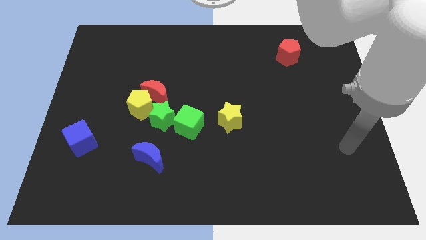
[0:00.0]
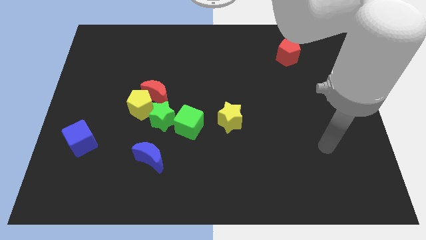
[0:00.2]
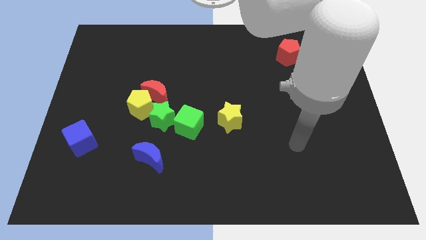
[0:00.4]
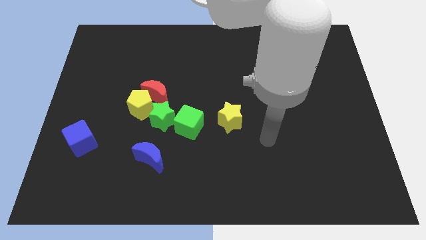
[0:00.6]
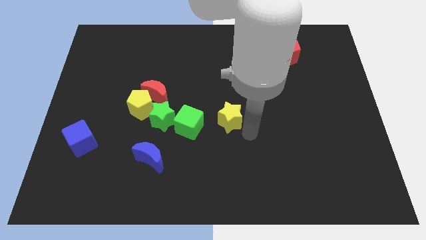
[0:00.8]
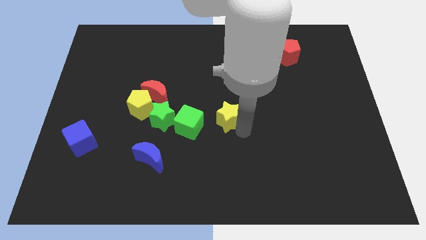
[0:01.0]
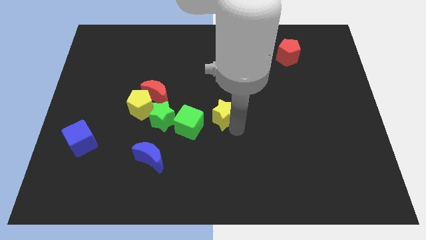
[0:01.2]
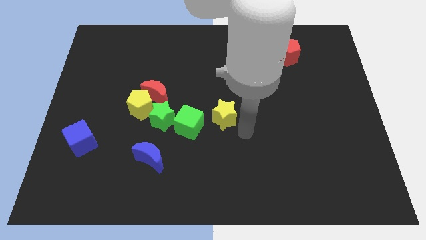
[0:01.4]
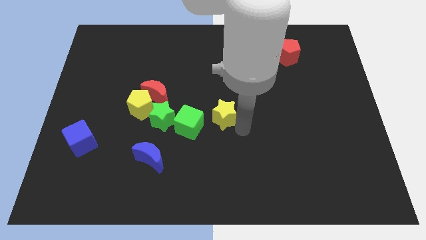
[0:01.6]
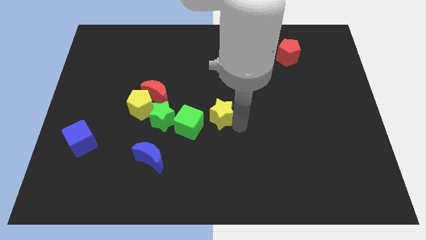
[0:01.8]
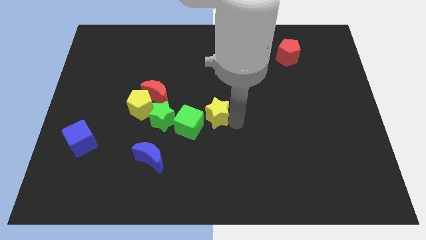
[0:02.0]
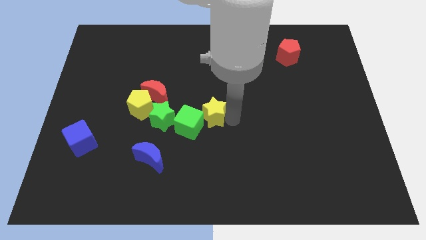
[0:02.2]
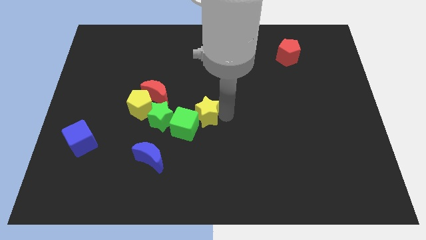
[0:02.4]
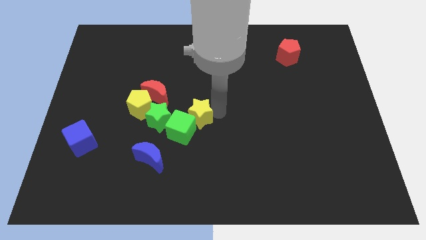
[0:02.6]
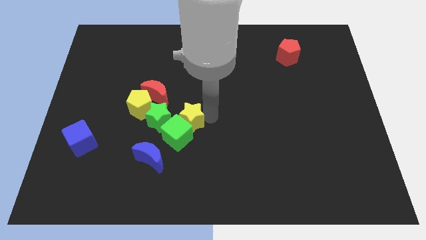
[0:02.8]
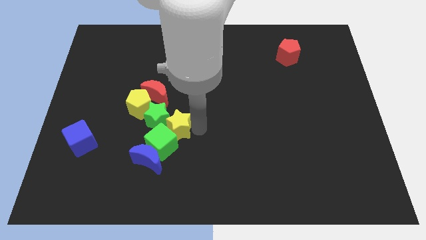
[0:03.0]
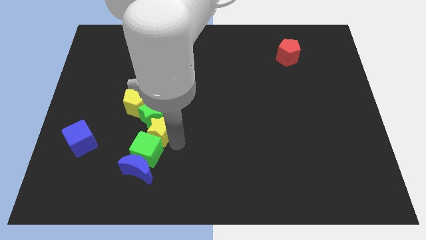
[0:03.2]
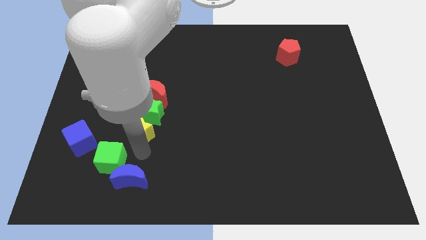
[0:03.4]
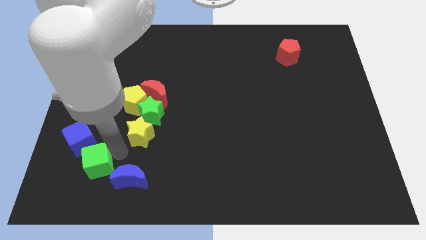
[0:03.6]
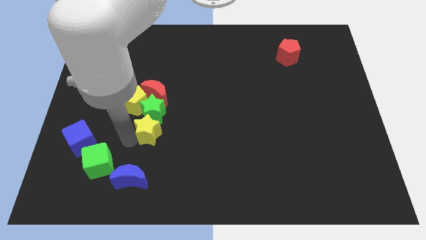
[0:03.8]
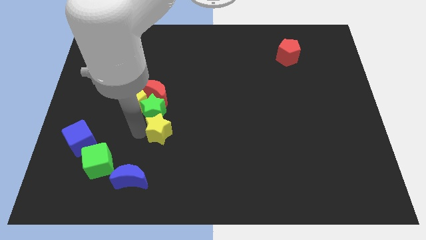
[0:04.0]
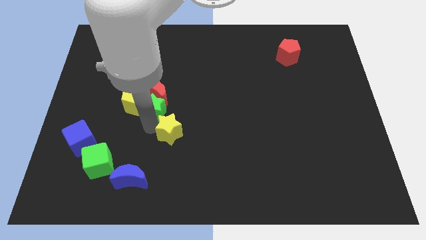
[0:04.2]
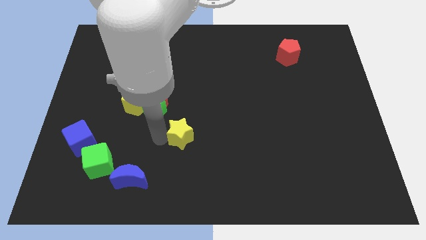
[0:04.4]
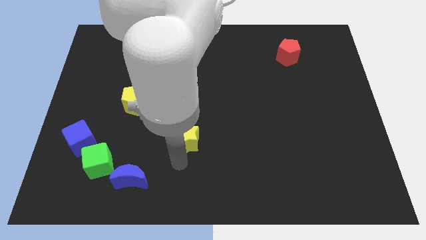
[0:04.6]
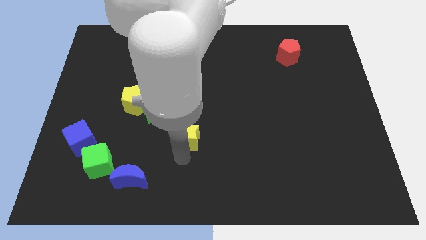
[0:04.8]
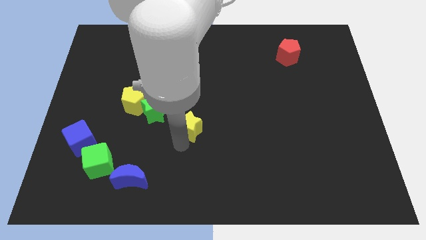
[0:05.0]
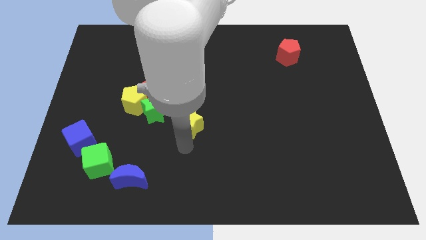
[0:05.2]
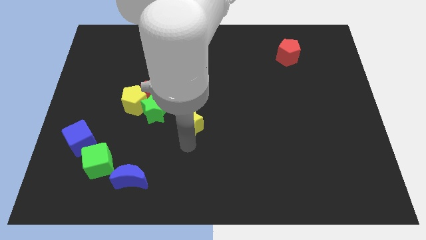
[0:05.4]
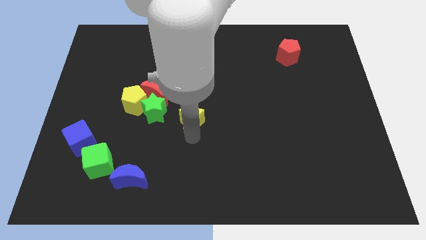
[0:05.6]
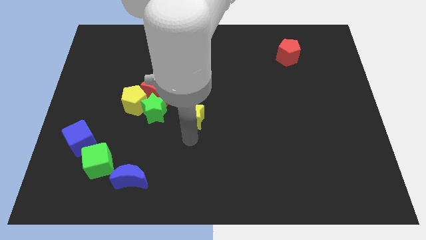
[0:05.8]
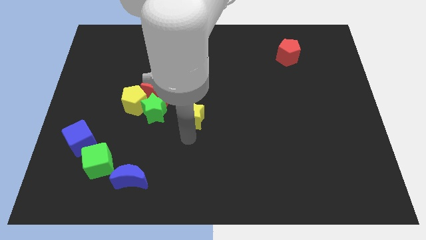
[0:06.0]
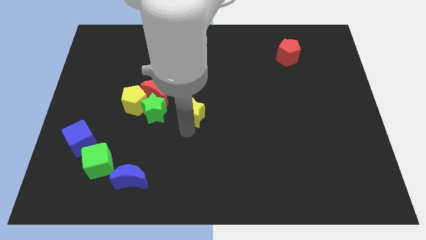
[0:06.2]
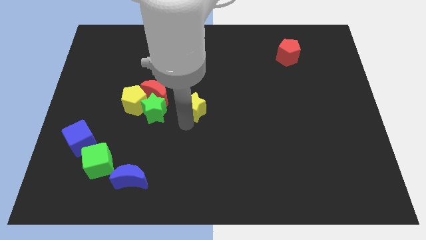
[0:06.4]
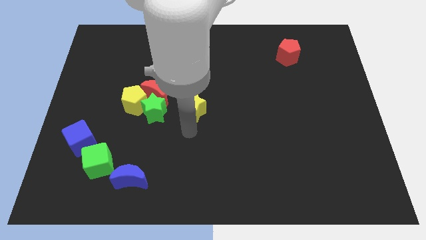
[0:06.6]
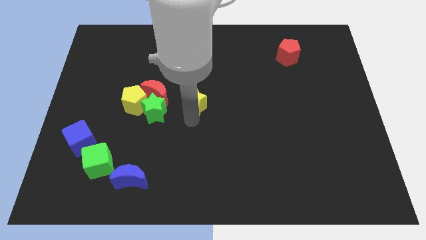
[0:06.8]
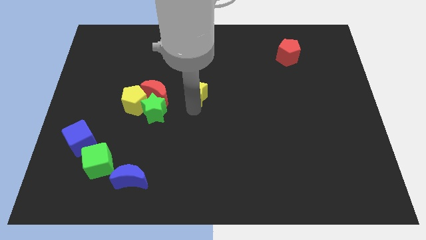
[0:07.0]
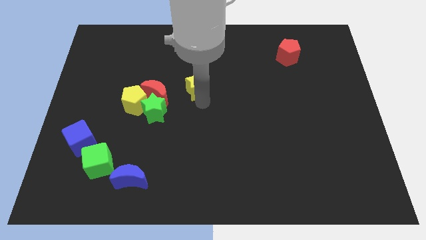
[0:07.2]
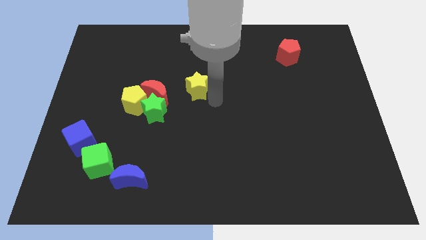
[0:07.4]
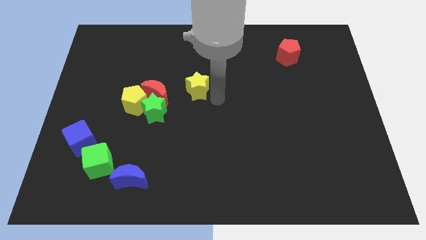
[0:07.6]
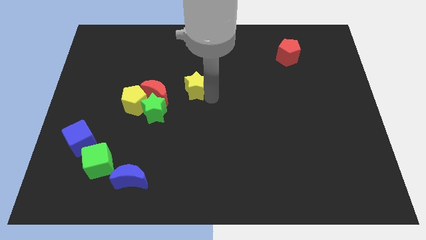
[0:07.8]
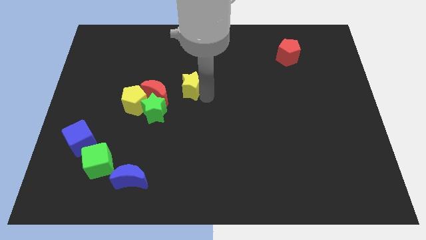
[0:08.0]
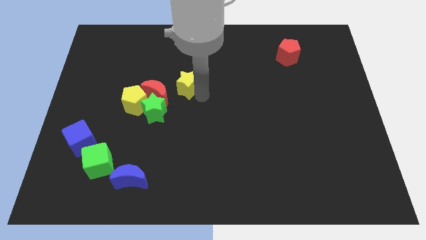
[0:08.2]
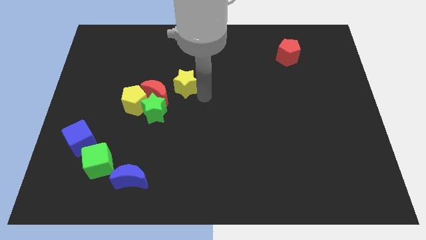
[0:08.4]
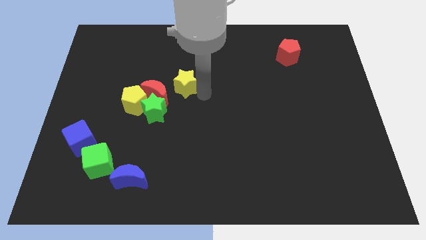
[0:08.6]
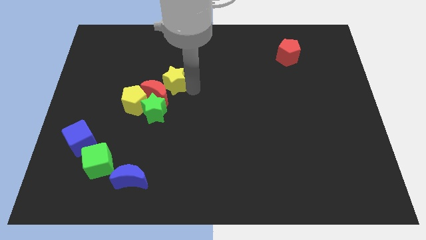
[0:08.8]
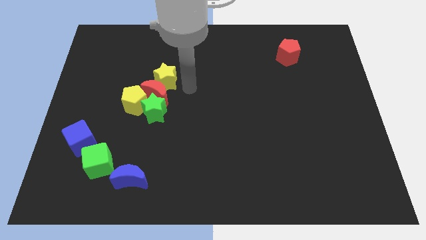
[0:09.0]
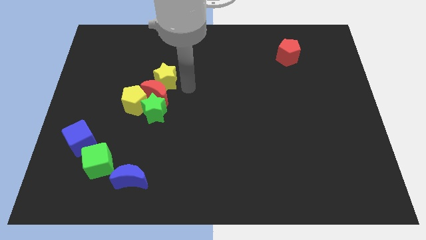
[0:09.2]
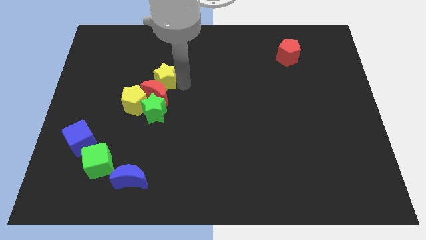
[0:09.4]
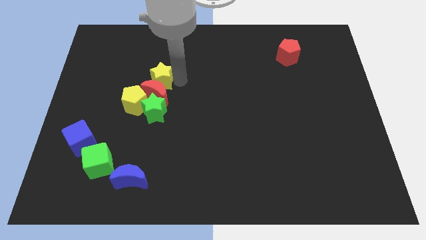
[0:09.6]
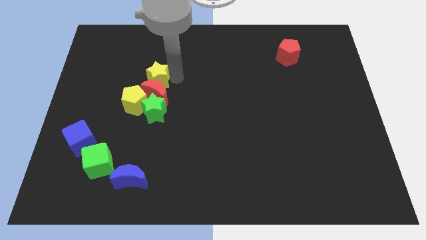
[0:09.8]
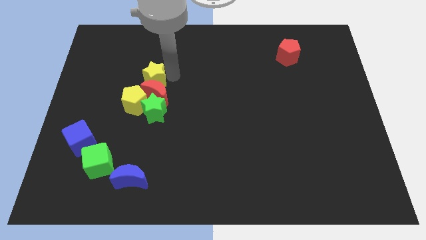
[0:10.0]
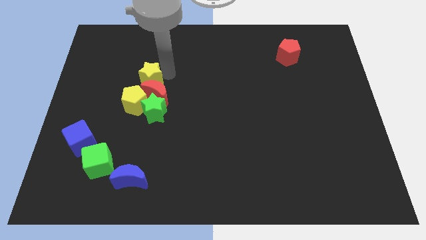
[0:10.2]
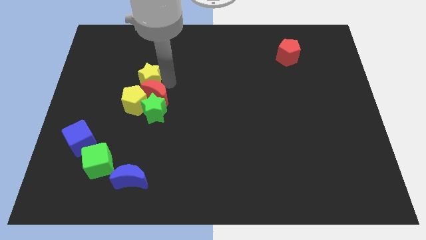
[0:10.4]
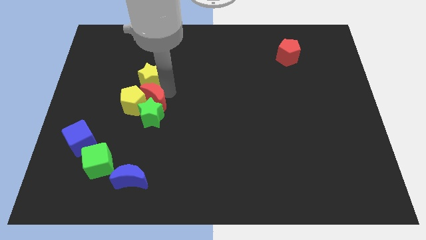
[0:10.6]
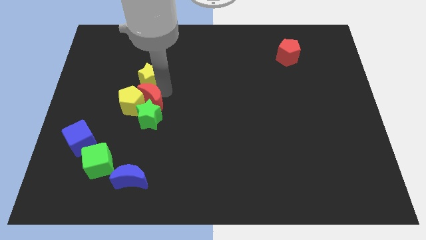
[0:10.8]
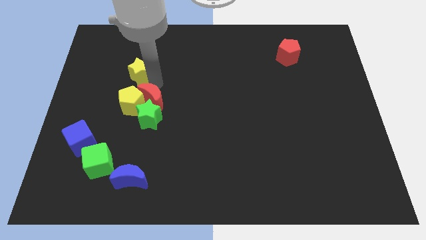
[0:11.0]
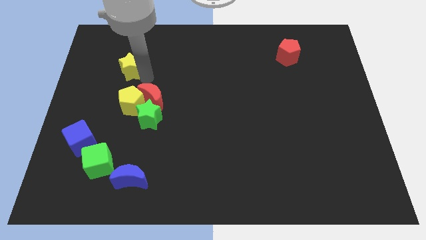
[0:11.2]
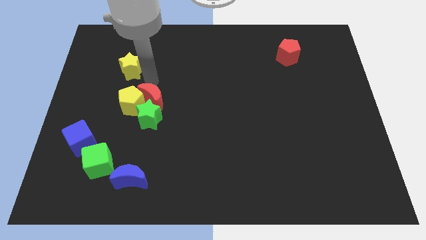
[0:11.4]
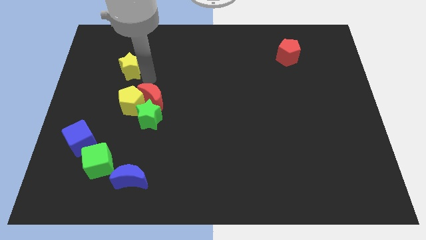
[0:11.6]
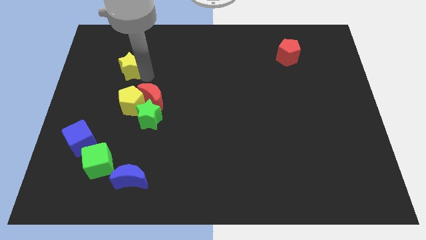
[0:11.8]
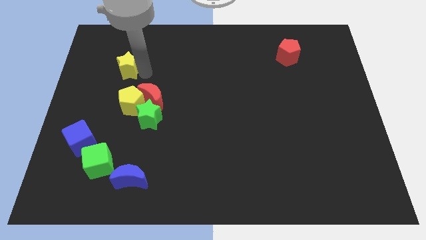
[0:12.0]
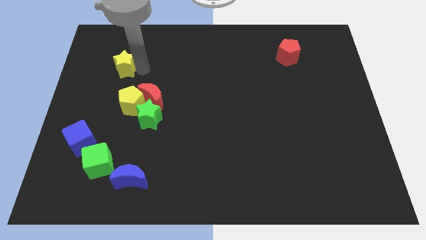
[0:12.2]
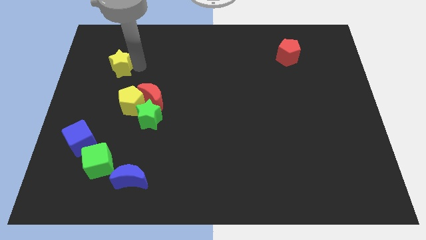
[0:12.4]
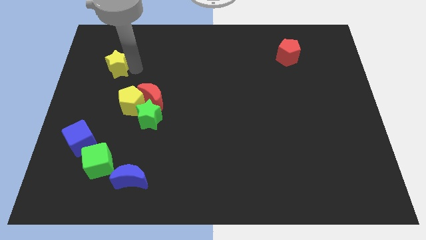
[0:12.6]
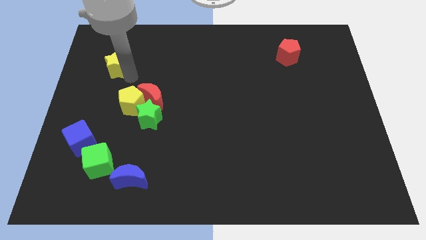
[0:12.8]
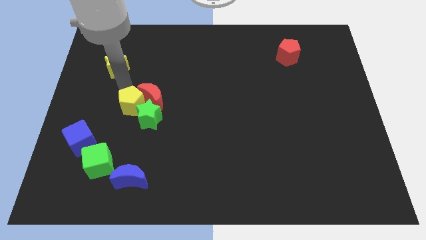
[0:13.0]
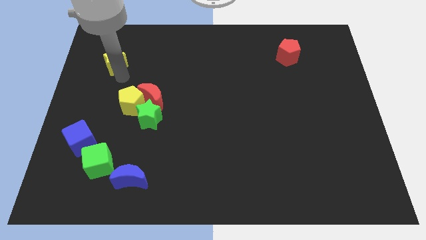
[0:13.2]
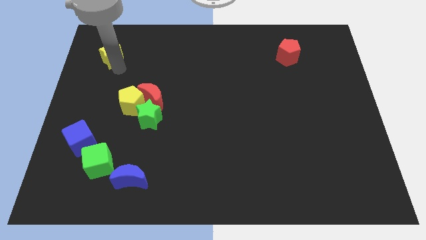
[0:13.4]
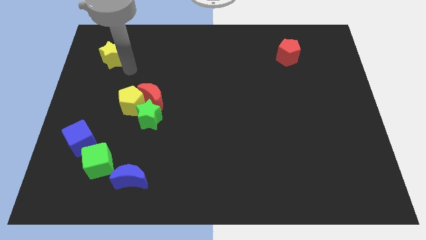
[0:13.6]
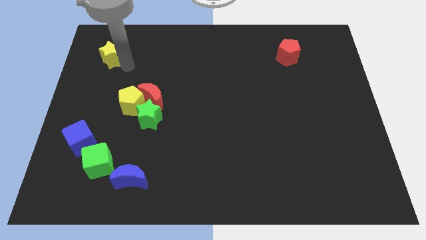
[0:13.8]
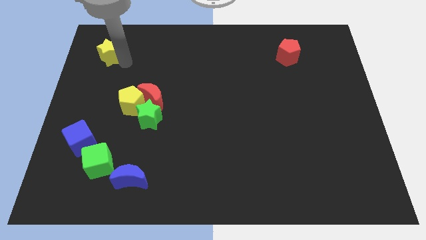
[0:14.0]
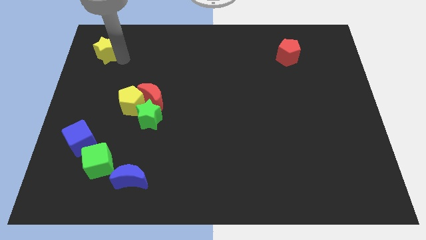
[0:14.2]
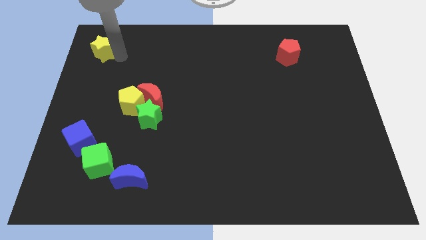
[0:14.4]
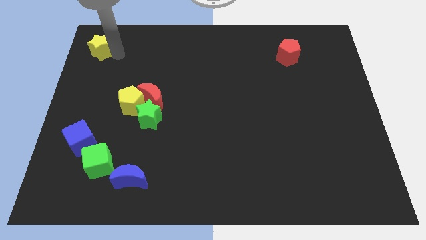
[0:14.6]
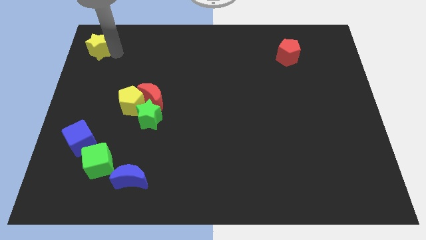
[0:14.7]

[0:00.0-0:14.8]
push the yellow star to the top left
